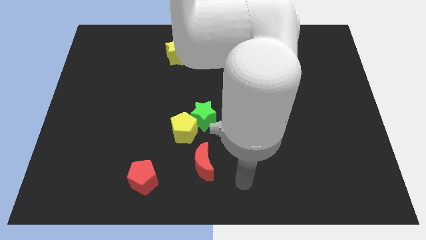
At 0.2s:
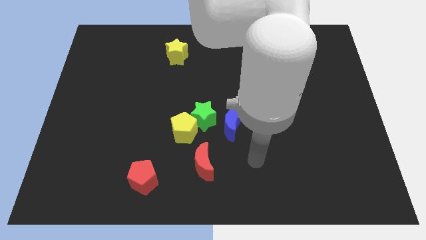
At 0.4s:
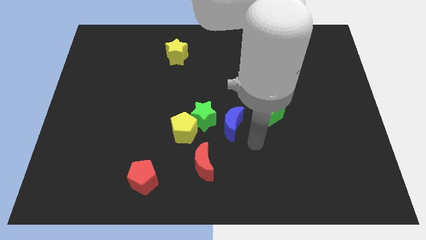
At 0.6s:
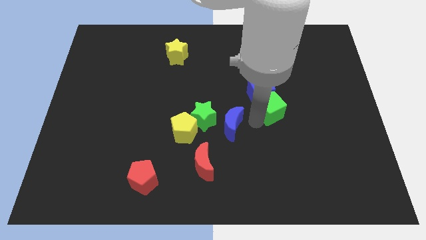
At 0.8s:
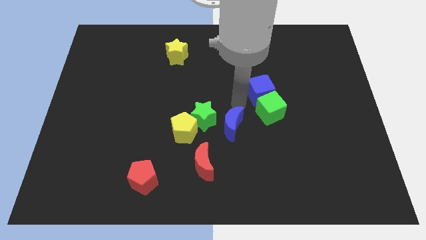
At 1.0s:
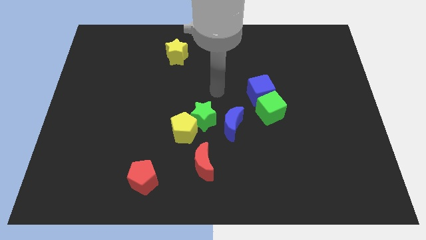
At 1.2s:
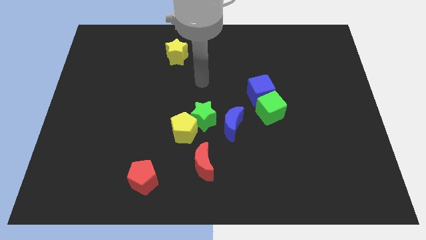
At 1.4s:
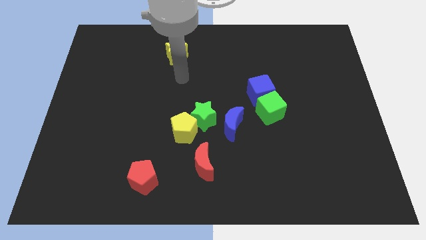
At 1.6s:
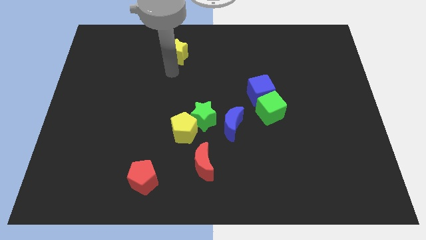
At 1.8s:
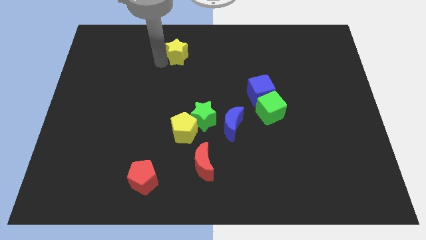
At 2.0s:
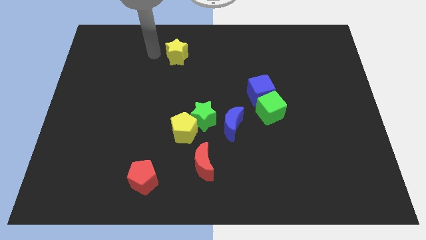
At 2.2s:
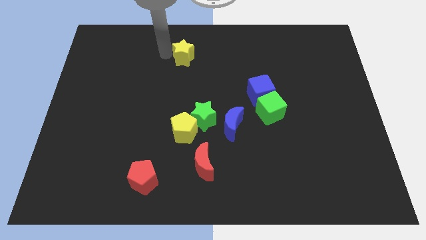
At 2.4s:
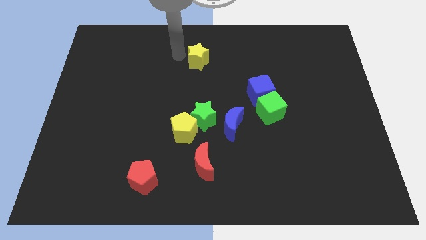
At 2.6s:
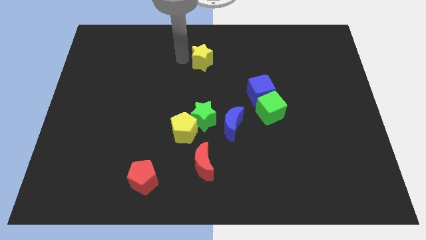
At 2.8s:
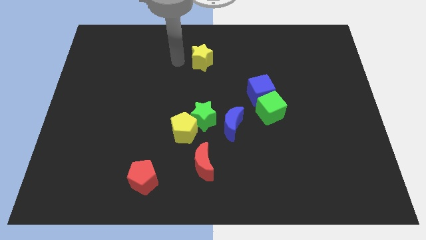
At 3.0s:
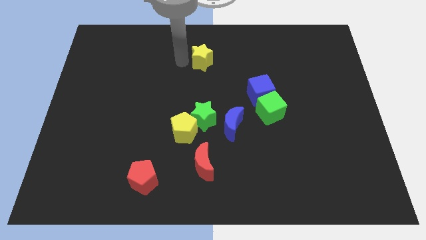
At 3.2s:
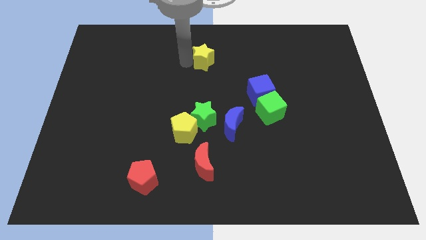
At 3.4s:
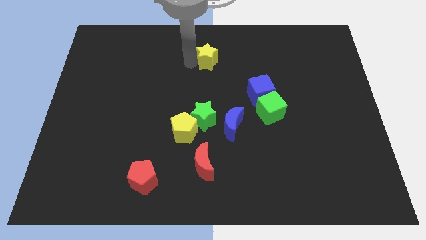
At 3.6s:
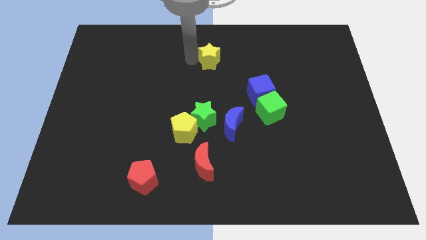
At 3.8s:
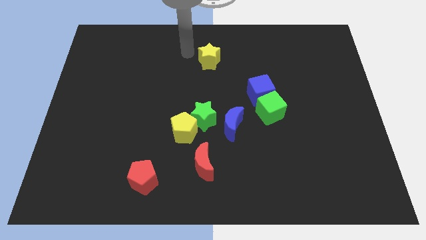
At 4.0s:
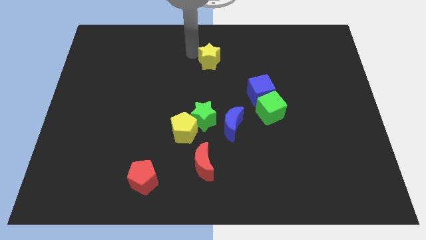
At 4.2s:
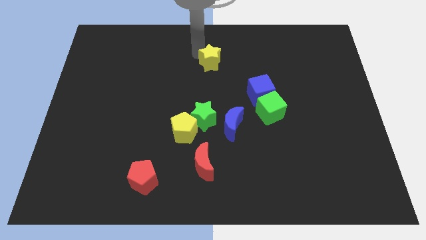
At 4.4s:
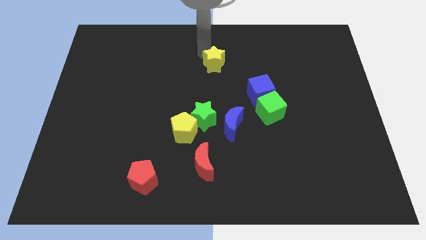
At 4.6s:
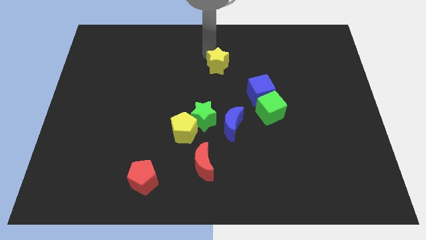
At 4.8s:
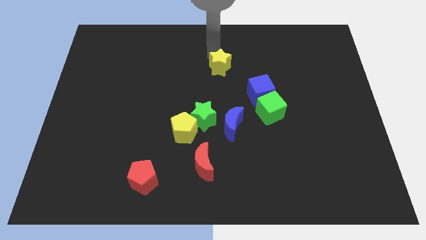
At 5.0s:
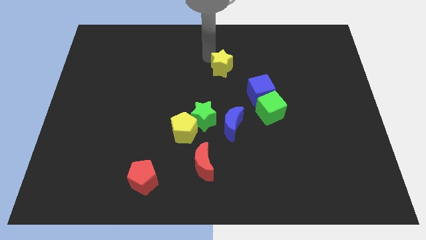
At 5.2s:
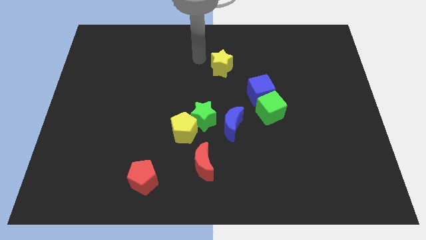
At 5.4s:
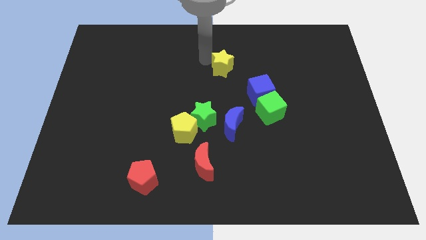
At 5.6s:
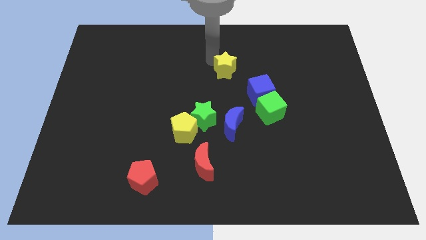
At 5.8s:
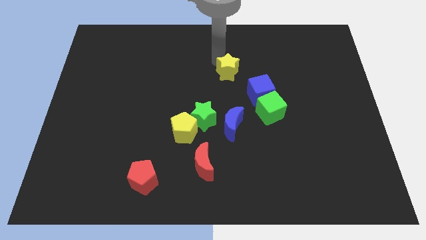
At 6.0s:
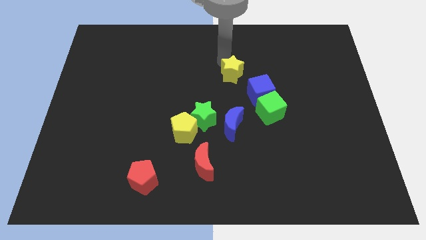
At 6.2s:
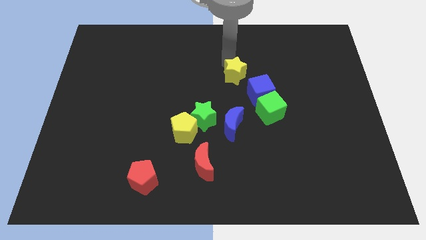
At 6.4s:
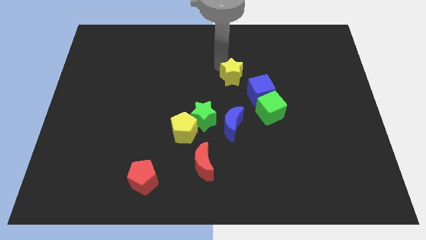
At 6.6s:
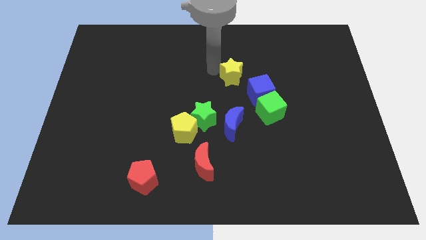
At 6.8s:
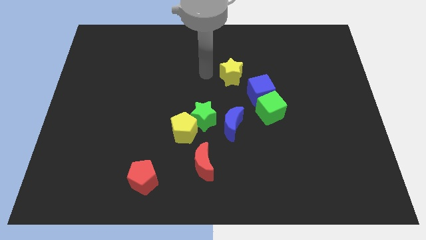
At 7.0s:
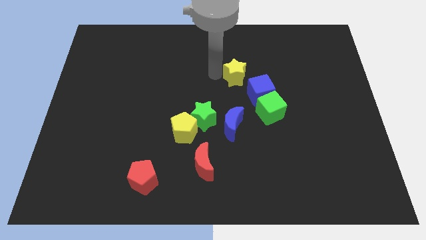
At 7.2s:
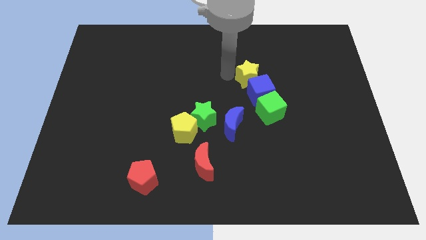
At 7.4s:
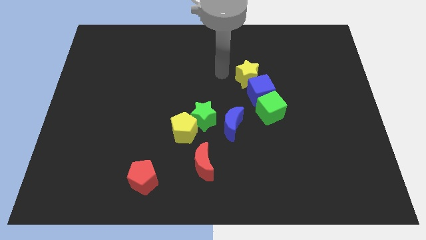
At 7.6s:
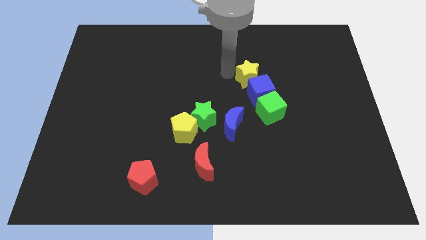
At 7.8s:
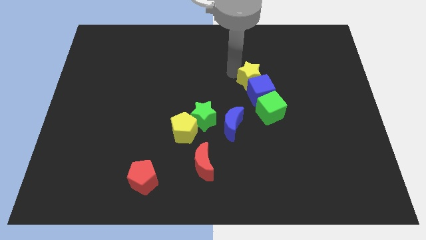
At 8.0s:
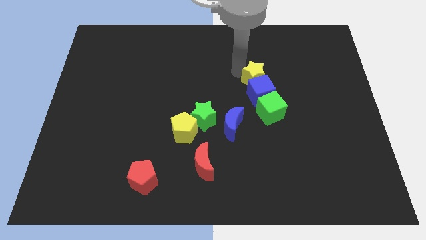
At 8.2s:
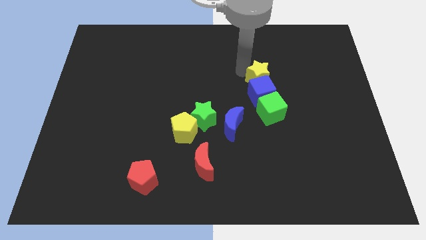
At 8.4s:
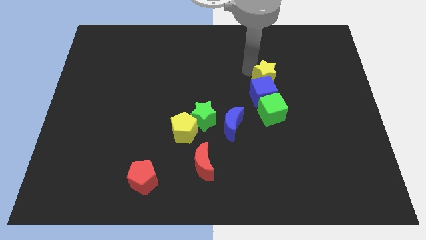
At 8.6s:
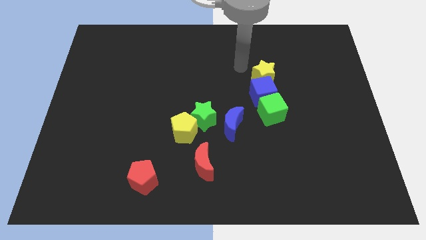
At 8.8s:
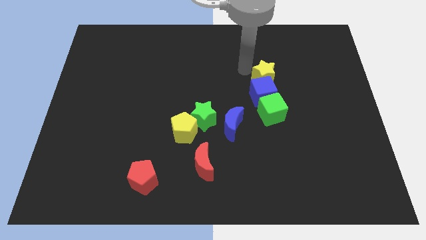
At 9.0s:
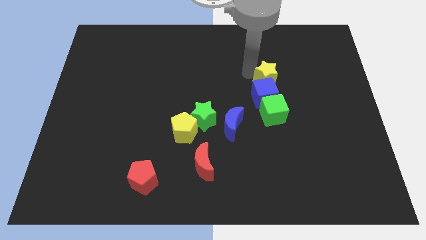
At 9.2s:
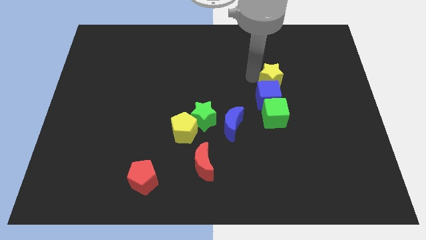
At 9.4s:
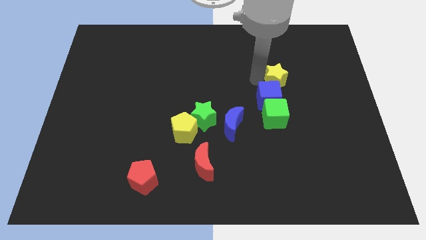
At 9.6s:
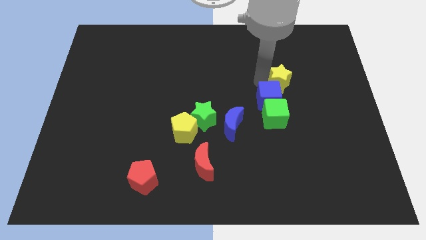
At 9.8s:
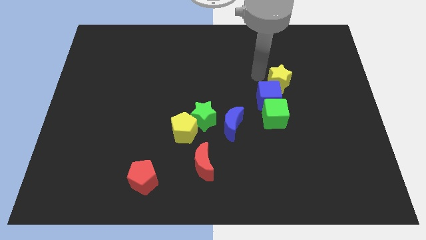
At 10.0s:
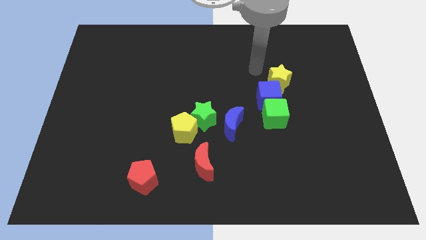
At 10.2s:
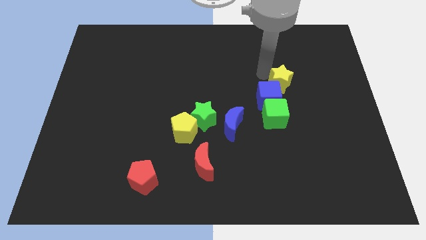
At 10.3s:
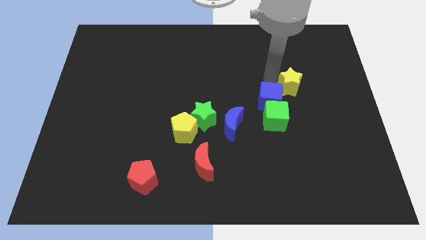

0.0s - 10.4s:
put the yellow star to the right side of the blue cube

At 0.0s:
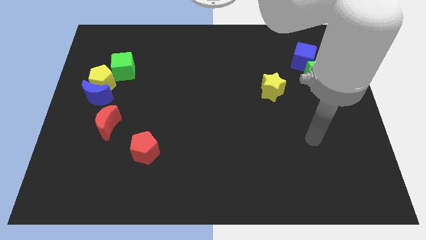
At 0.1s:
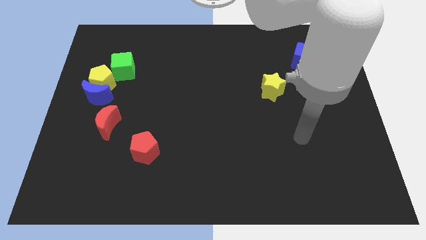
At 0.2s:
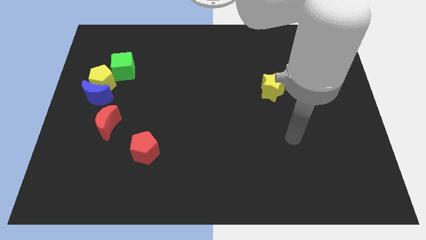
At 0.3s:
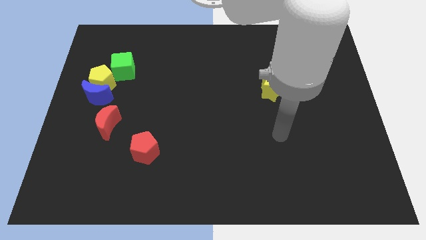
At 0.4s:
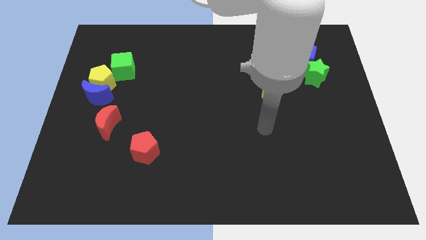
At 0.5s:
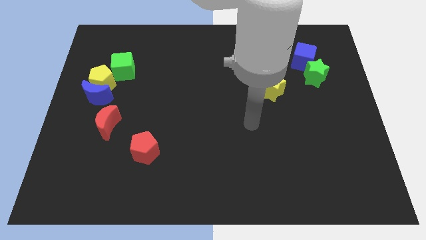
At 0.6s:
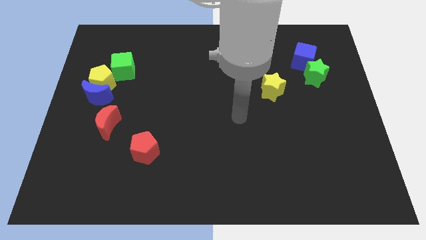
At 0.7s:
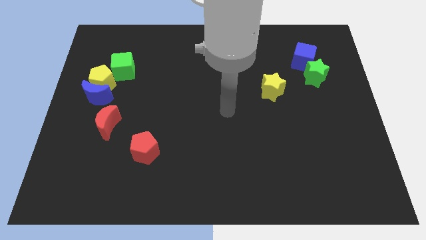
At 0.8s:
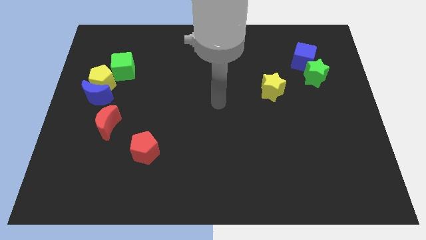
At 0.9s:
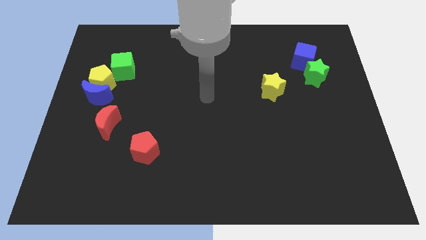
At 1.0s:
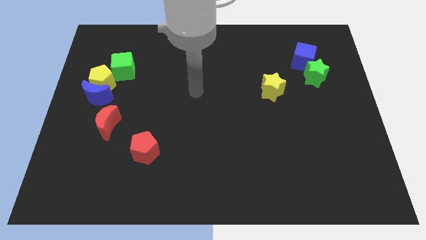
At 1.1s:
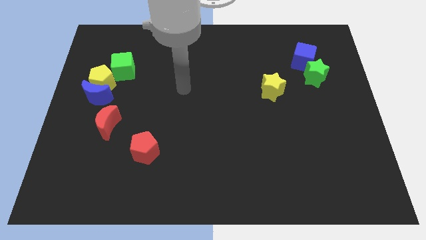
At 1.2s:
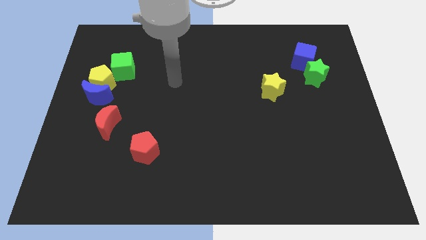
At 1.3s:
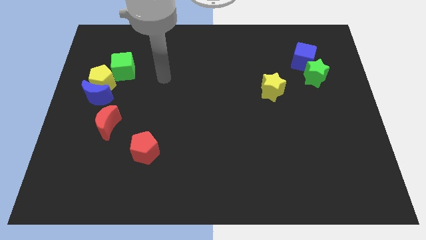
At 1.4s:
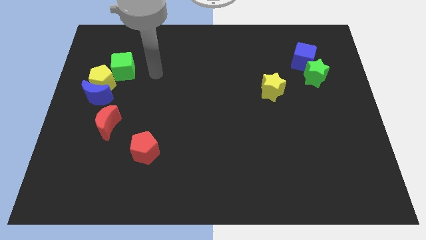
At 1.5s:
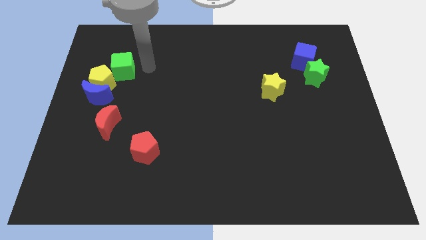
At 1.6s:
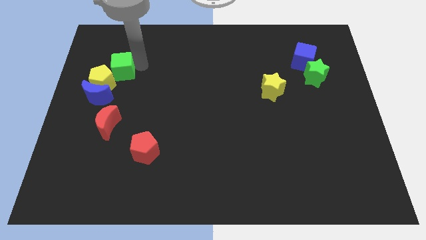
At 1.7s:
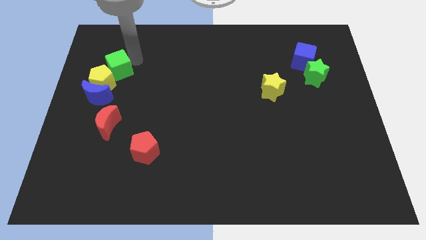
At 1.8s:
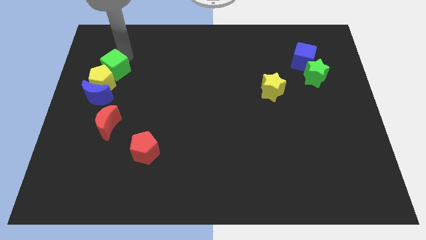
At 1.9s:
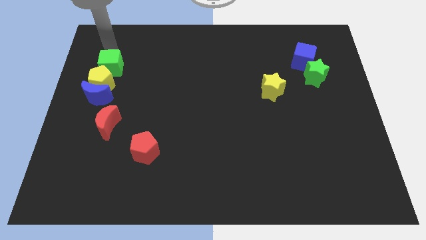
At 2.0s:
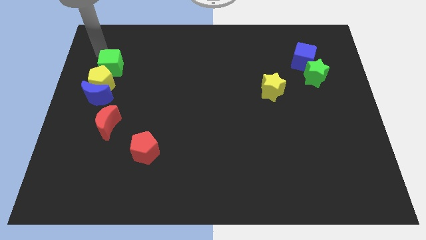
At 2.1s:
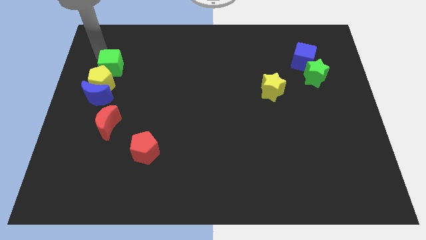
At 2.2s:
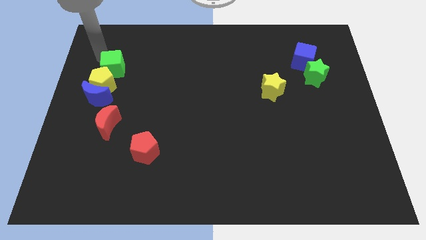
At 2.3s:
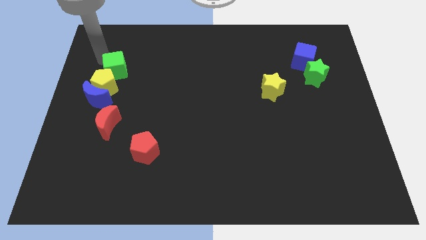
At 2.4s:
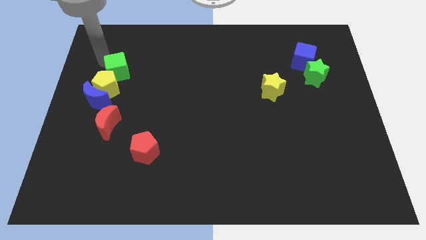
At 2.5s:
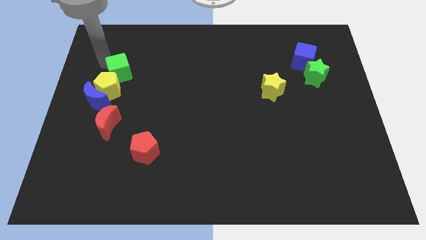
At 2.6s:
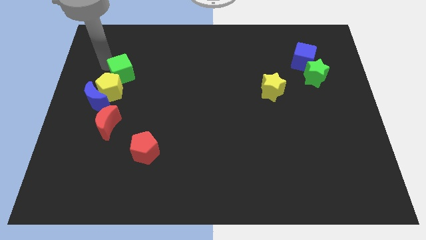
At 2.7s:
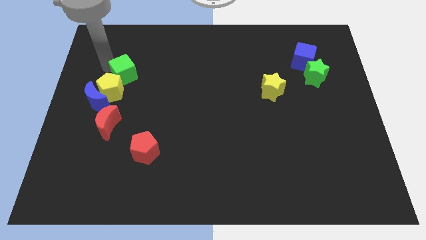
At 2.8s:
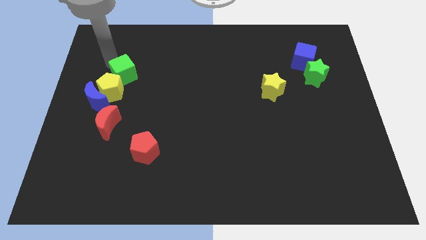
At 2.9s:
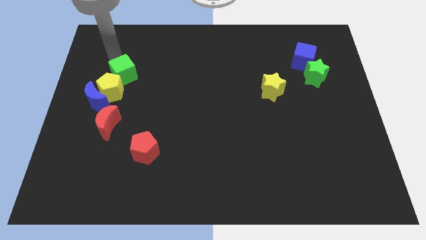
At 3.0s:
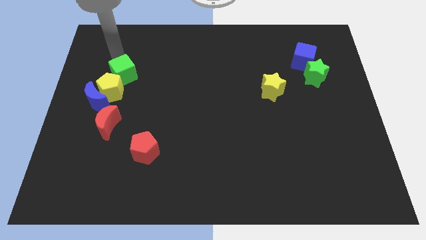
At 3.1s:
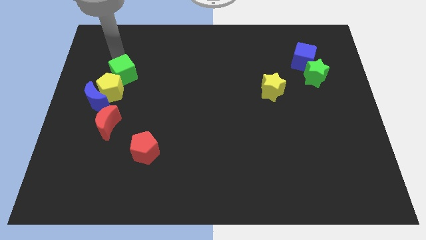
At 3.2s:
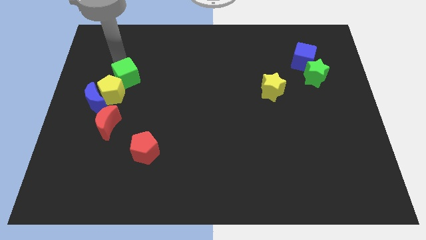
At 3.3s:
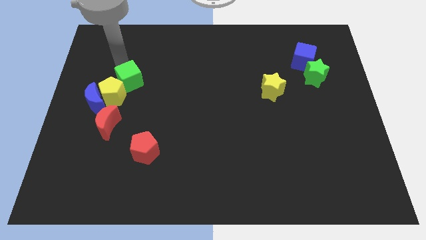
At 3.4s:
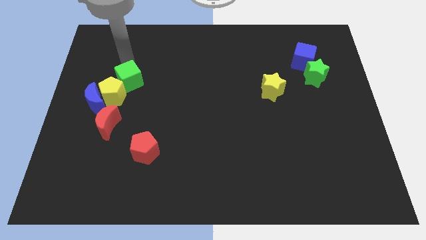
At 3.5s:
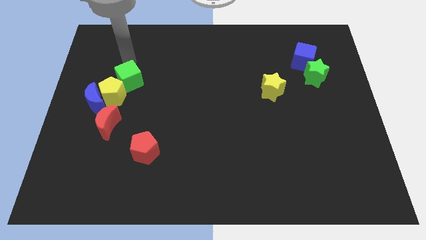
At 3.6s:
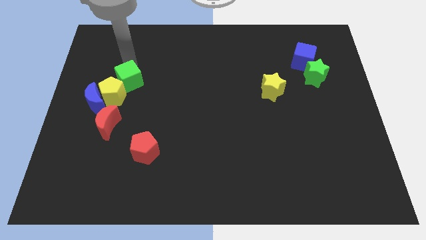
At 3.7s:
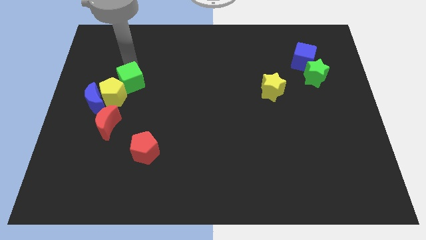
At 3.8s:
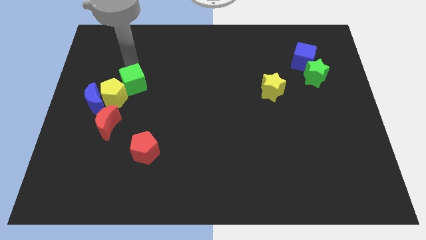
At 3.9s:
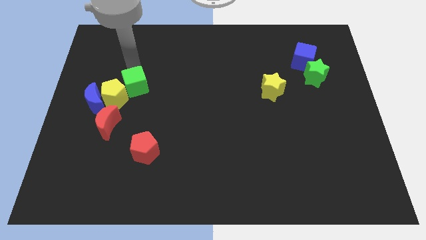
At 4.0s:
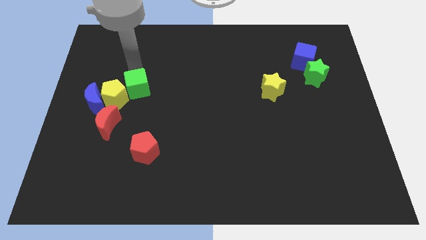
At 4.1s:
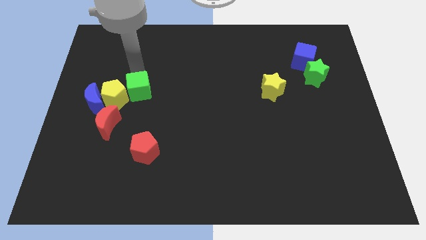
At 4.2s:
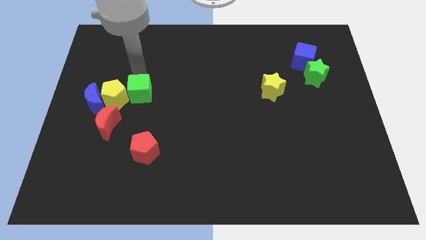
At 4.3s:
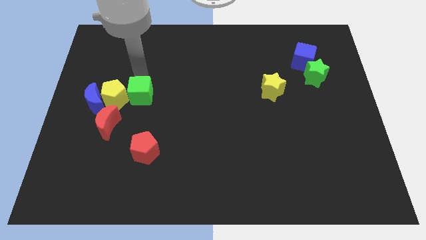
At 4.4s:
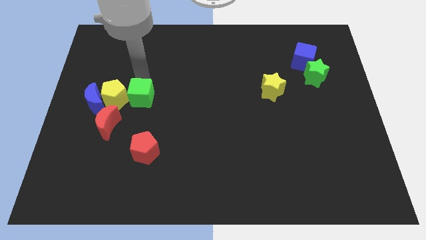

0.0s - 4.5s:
slide the green cube diagonally down and to the right of the yellow pentagon
